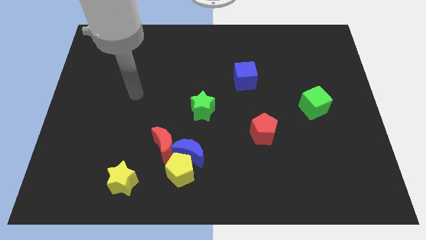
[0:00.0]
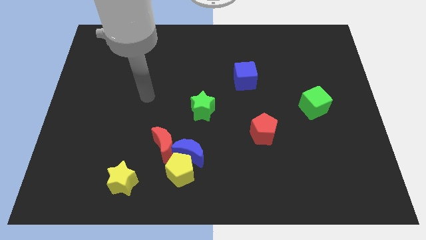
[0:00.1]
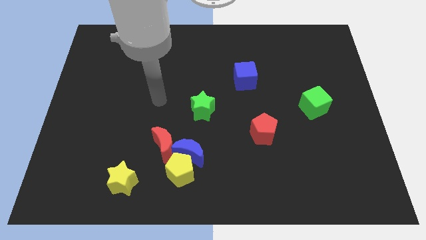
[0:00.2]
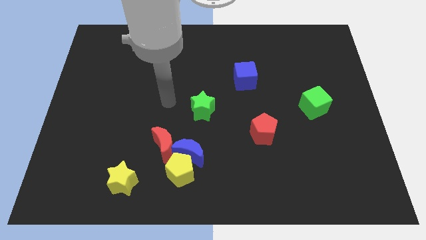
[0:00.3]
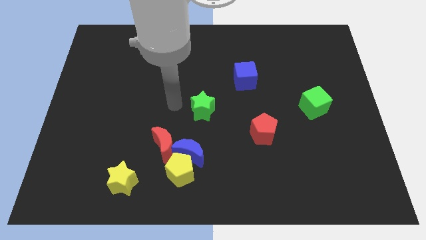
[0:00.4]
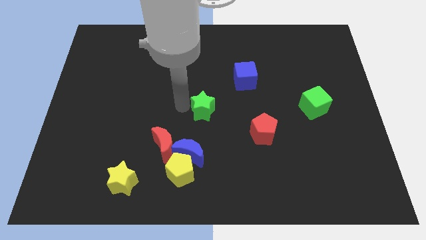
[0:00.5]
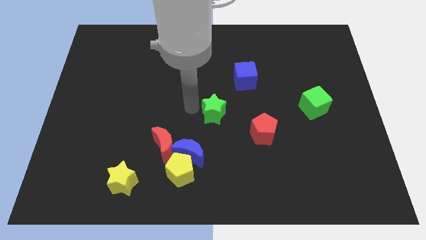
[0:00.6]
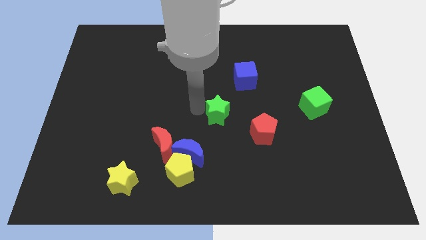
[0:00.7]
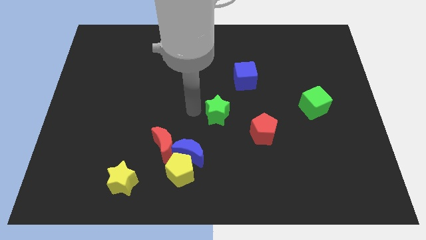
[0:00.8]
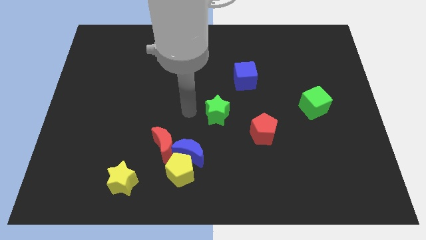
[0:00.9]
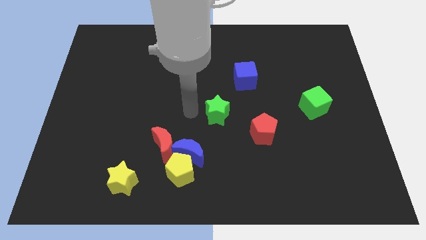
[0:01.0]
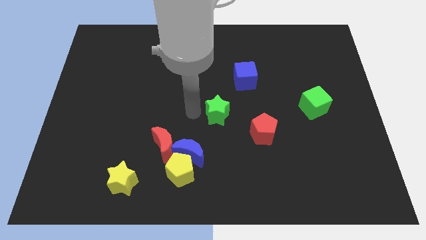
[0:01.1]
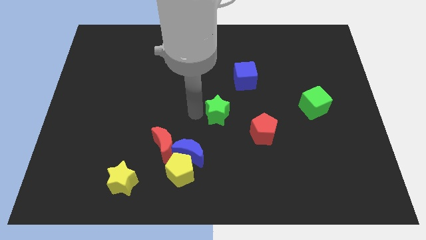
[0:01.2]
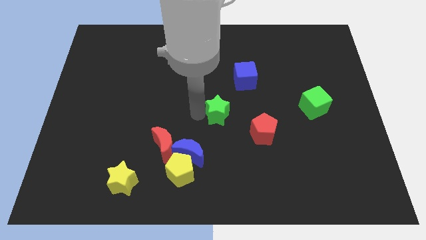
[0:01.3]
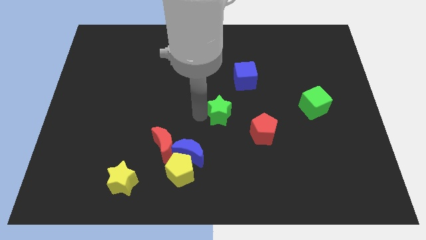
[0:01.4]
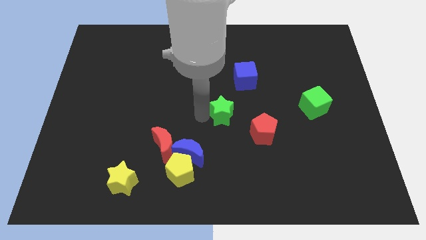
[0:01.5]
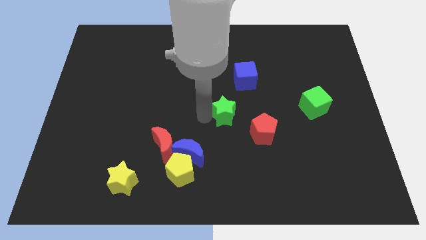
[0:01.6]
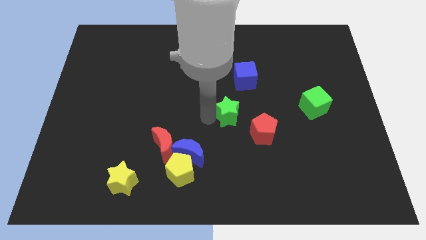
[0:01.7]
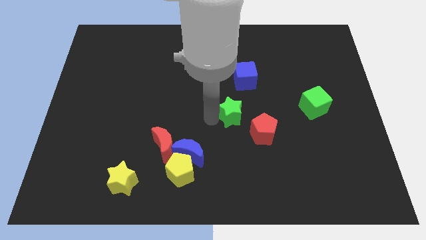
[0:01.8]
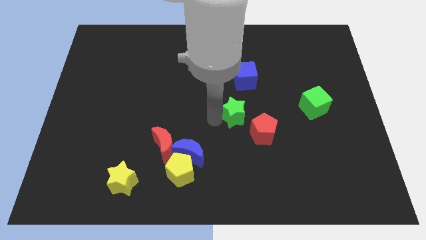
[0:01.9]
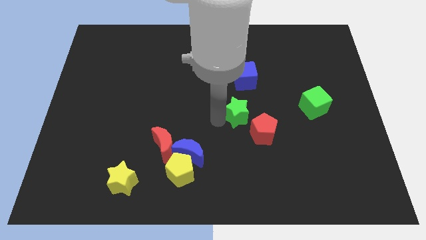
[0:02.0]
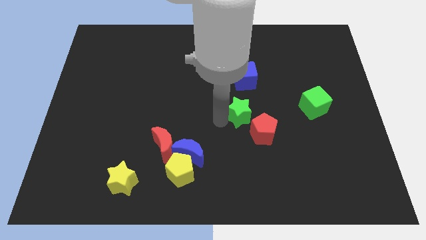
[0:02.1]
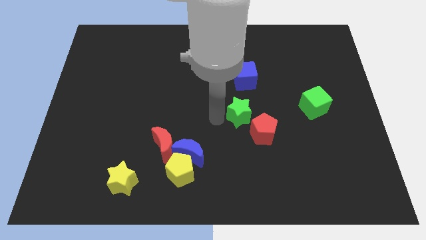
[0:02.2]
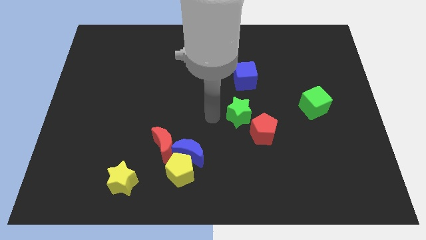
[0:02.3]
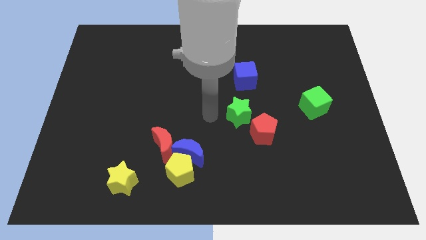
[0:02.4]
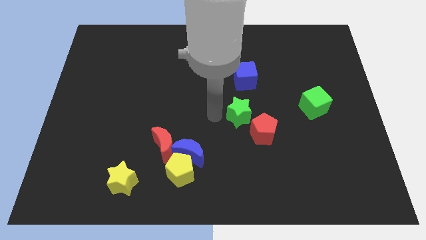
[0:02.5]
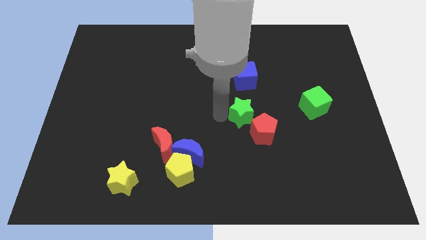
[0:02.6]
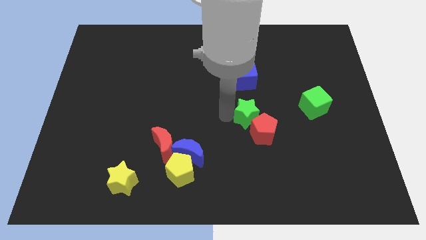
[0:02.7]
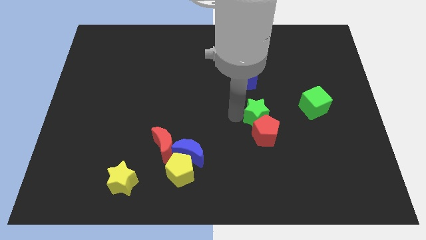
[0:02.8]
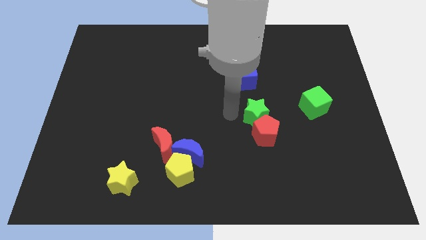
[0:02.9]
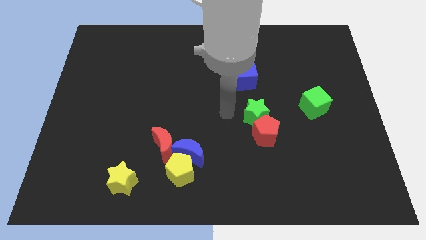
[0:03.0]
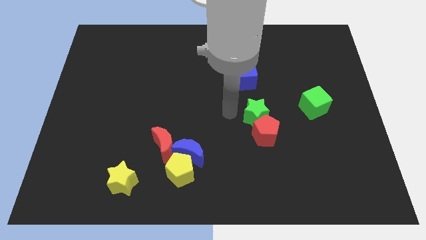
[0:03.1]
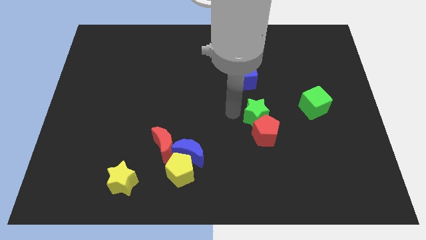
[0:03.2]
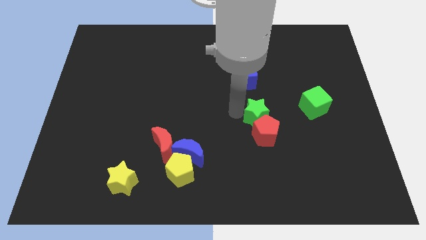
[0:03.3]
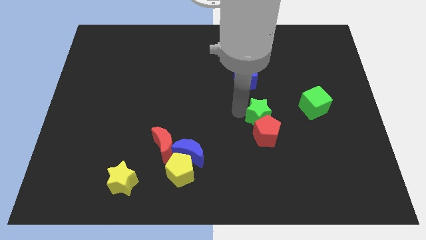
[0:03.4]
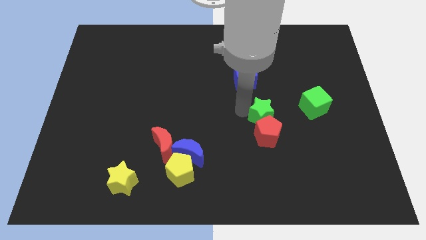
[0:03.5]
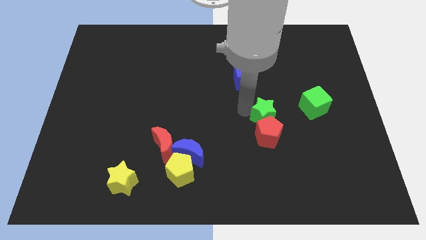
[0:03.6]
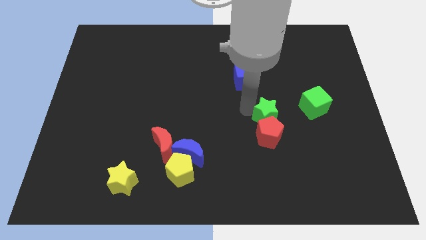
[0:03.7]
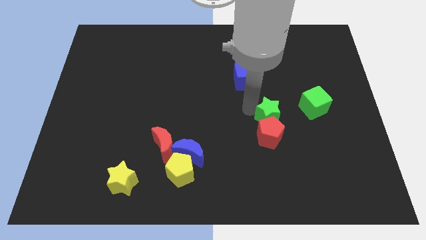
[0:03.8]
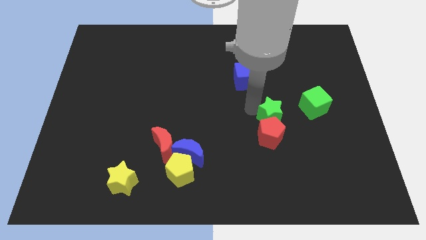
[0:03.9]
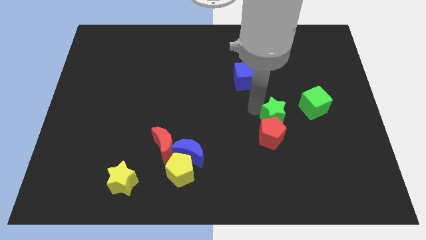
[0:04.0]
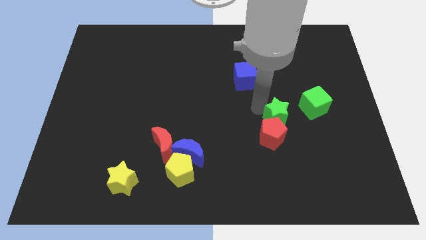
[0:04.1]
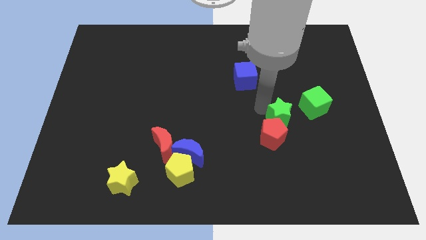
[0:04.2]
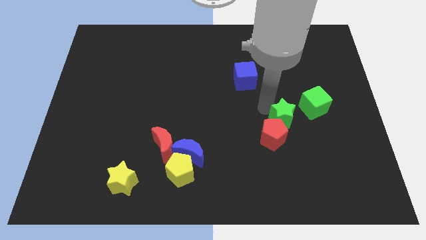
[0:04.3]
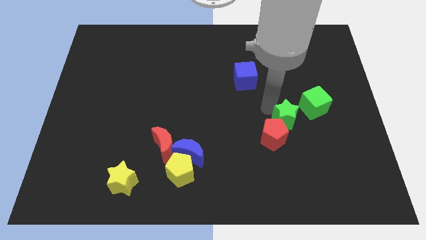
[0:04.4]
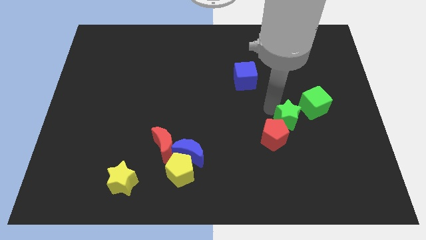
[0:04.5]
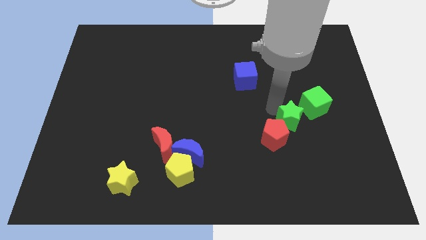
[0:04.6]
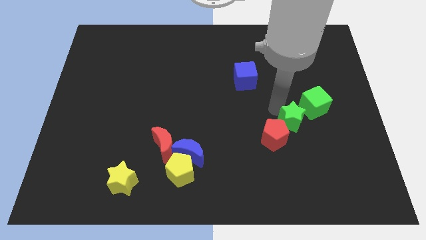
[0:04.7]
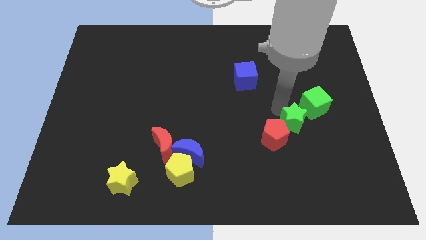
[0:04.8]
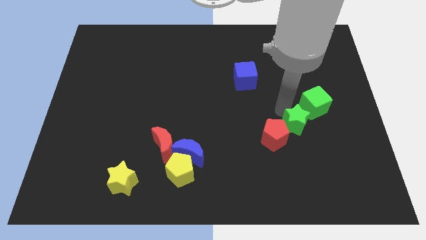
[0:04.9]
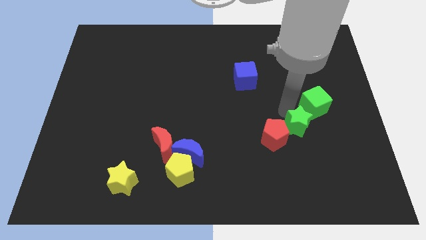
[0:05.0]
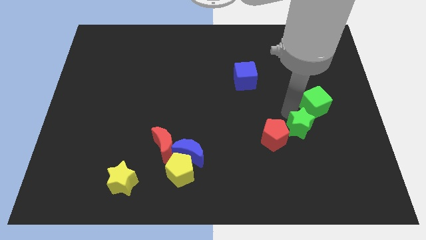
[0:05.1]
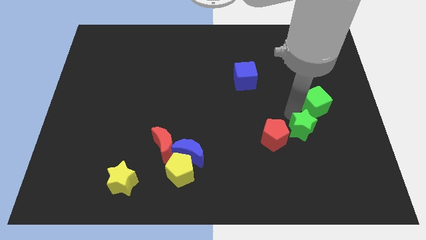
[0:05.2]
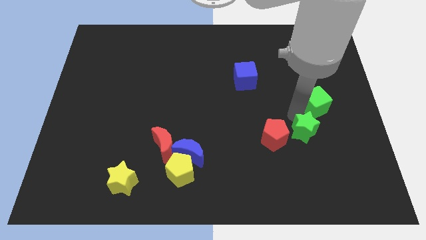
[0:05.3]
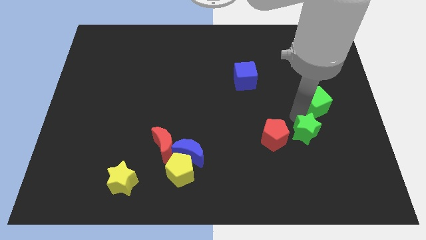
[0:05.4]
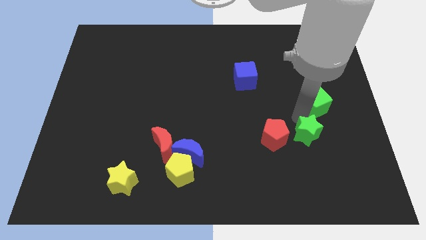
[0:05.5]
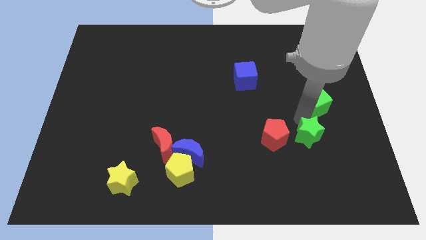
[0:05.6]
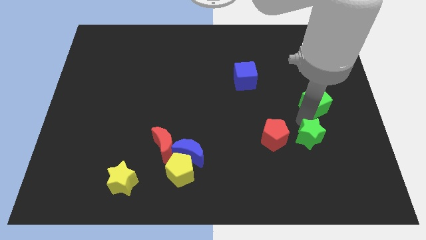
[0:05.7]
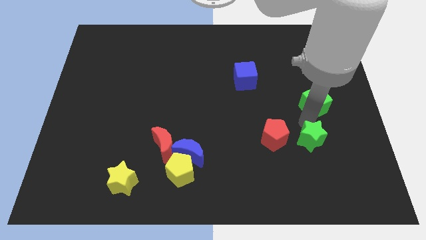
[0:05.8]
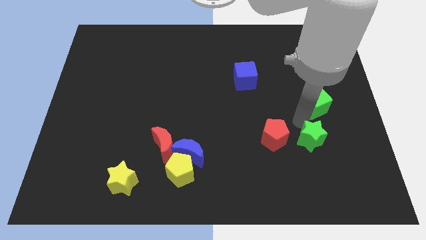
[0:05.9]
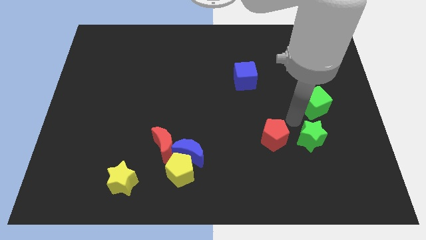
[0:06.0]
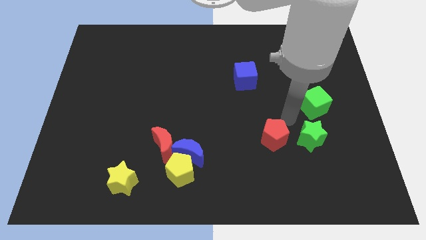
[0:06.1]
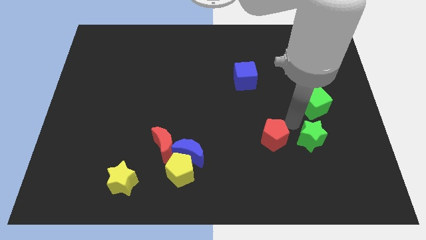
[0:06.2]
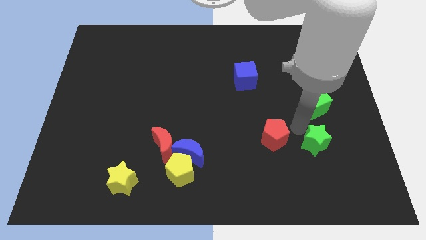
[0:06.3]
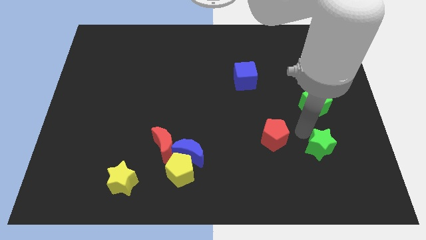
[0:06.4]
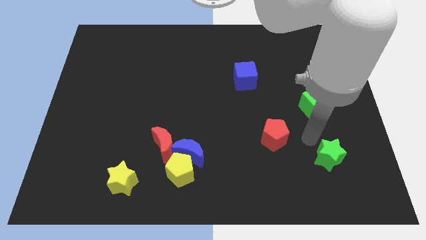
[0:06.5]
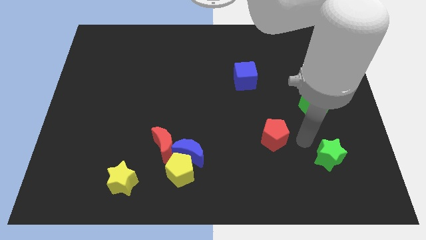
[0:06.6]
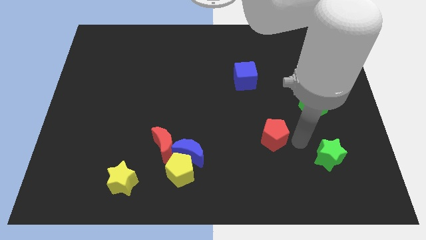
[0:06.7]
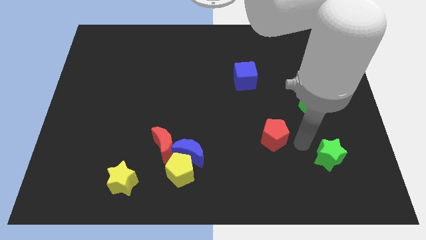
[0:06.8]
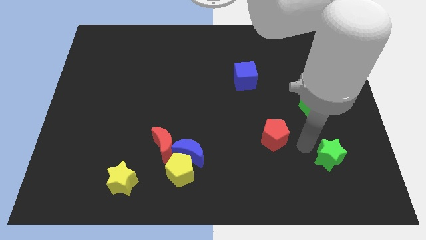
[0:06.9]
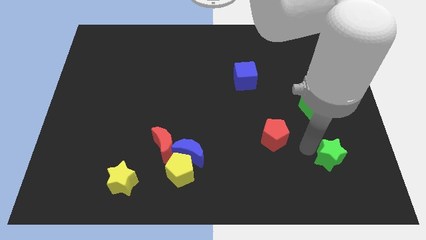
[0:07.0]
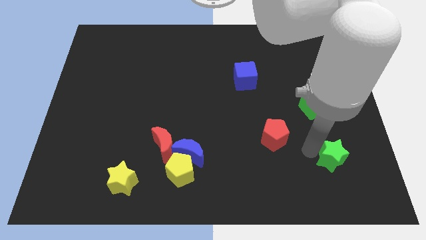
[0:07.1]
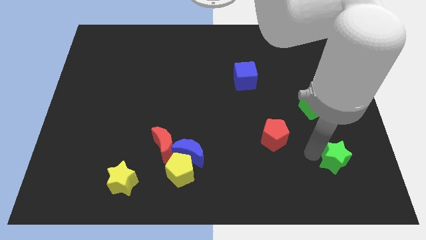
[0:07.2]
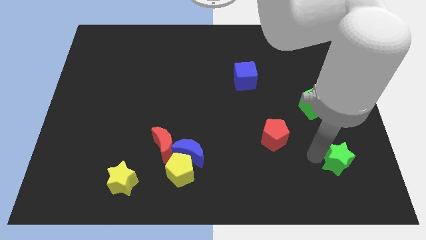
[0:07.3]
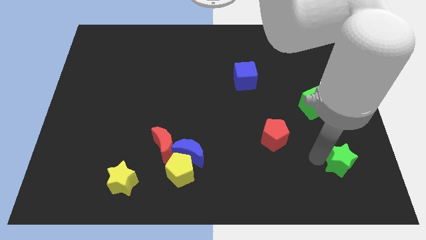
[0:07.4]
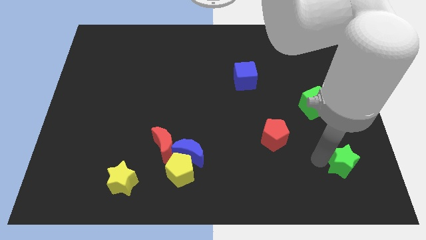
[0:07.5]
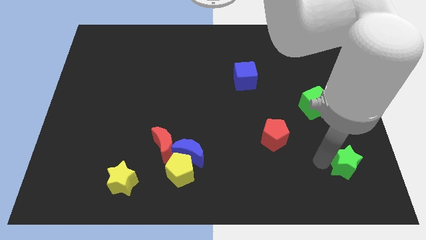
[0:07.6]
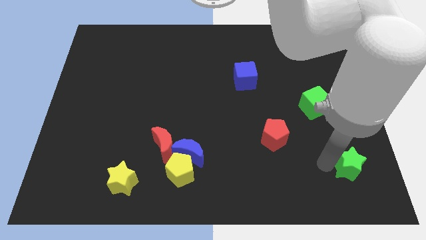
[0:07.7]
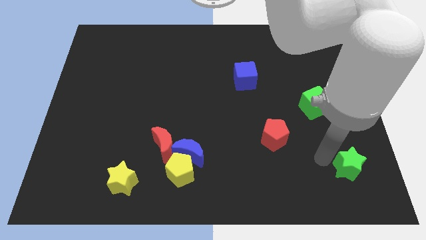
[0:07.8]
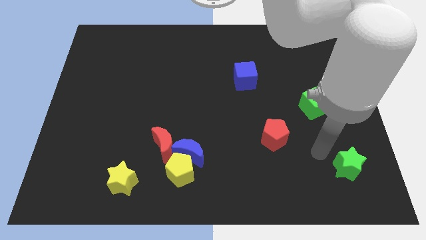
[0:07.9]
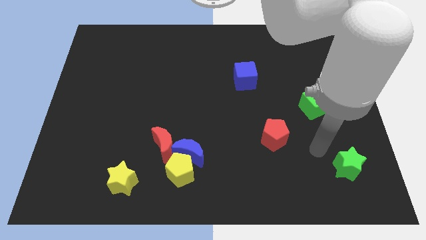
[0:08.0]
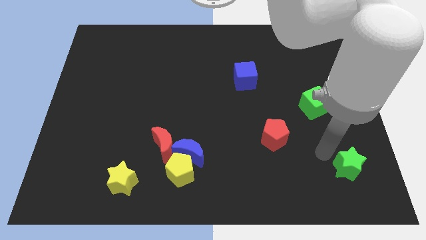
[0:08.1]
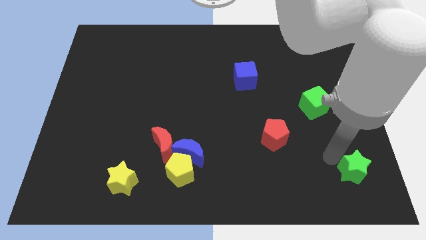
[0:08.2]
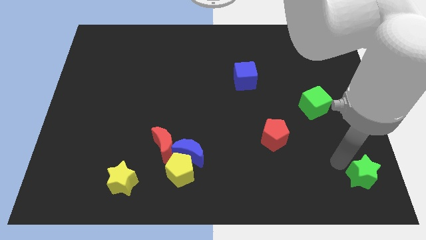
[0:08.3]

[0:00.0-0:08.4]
slide the green star to the bottom right corner
